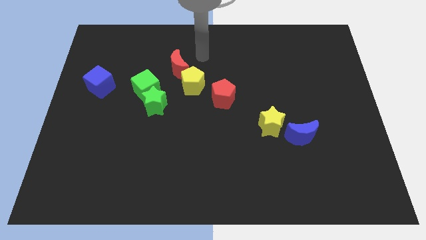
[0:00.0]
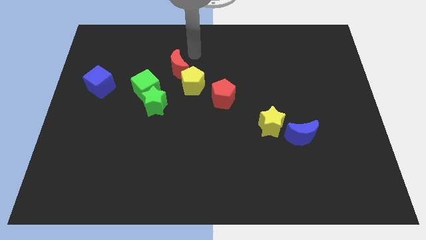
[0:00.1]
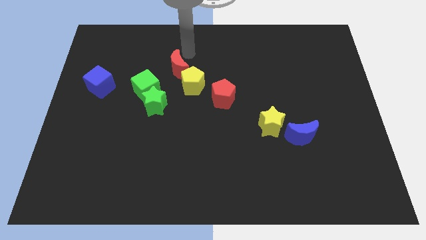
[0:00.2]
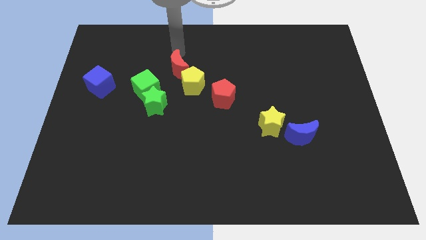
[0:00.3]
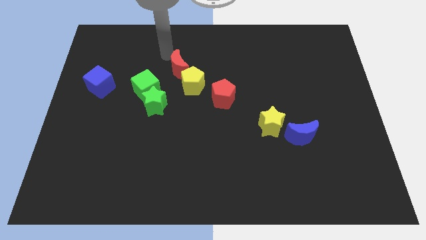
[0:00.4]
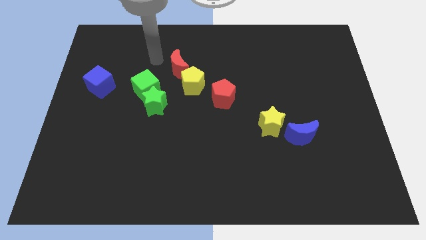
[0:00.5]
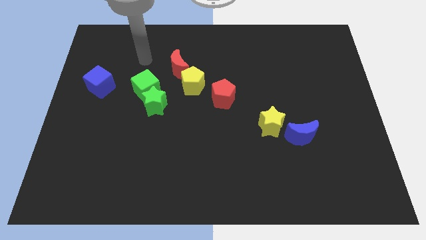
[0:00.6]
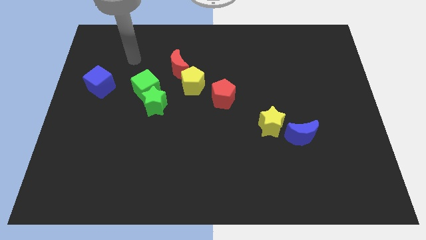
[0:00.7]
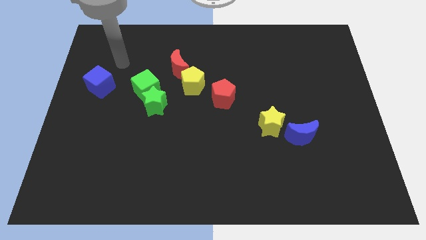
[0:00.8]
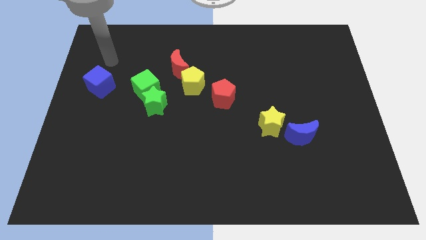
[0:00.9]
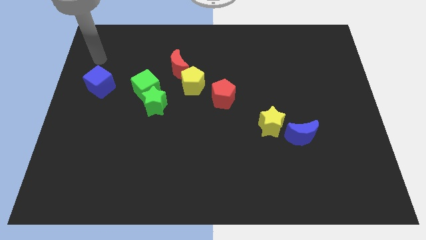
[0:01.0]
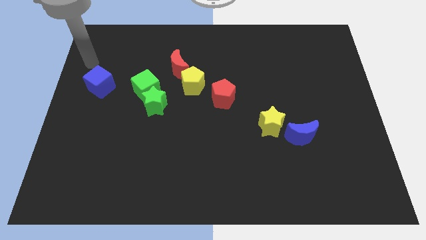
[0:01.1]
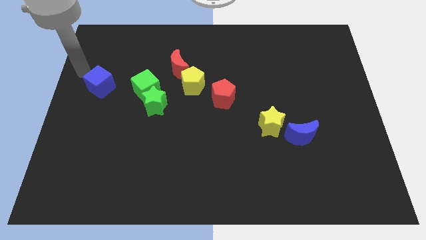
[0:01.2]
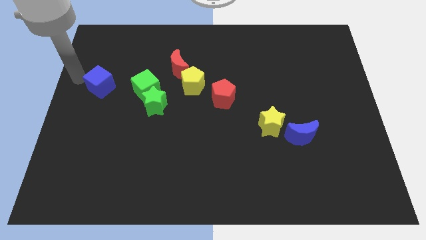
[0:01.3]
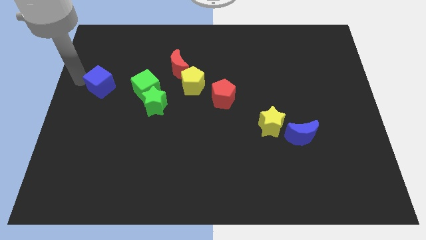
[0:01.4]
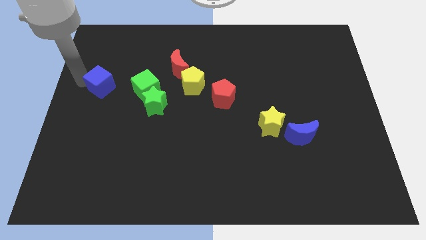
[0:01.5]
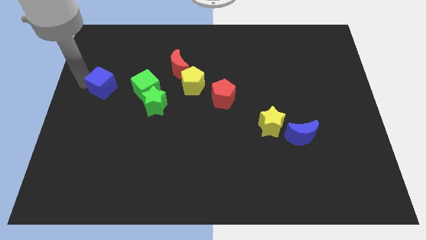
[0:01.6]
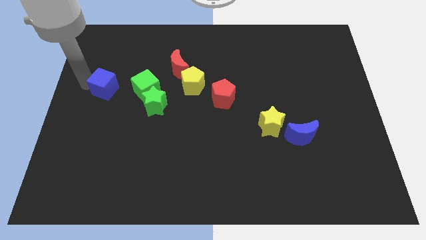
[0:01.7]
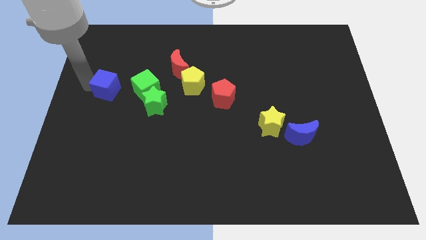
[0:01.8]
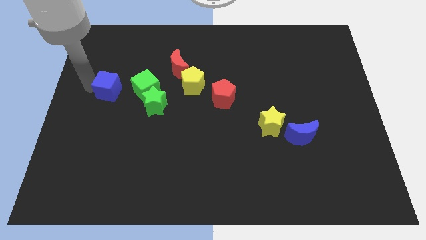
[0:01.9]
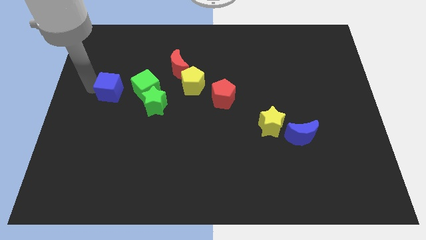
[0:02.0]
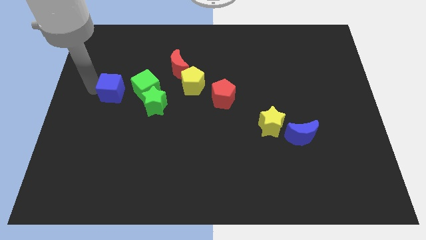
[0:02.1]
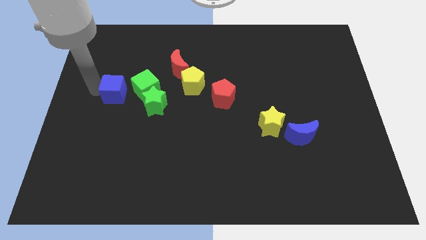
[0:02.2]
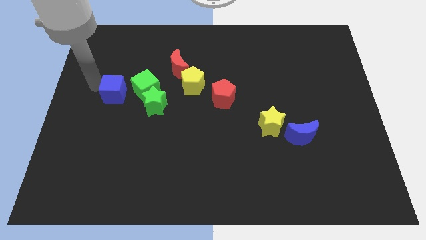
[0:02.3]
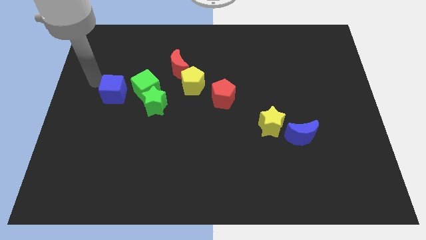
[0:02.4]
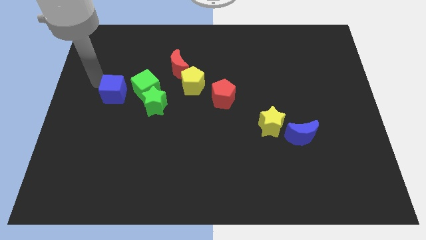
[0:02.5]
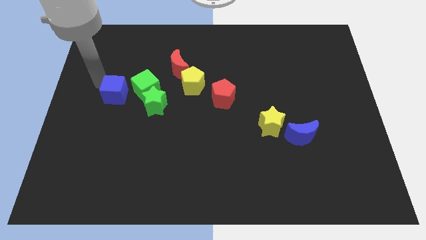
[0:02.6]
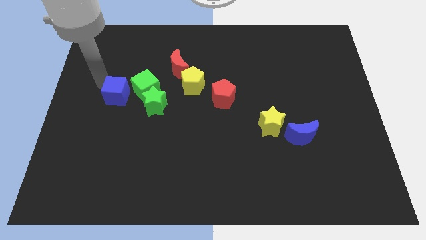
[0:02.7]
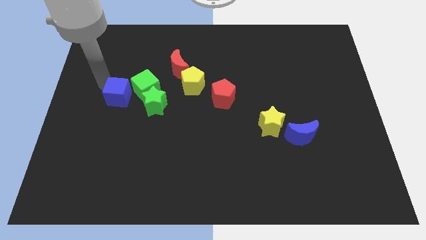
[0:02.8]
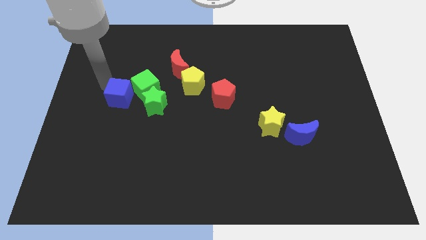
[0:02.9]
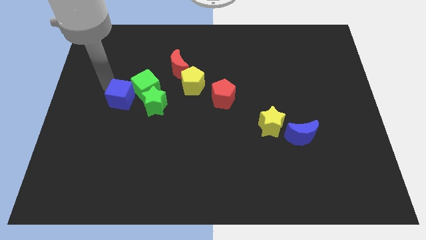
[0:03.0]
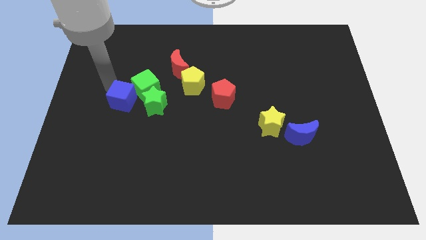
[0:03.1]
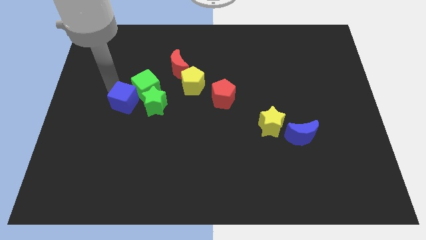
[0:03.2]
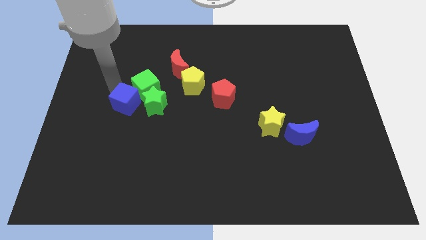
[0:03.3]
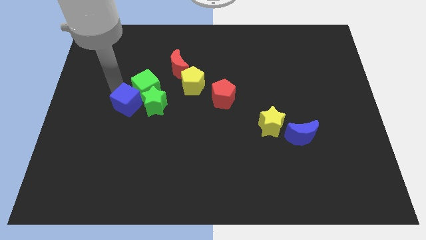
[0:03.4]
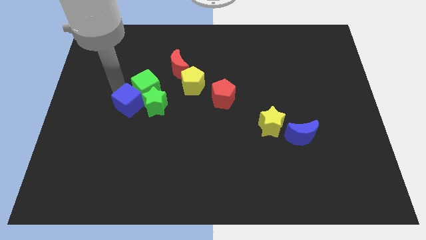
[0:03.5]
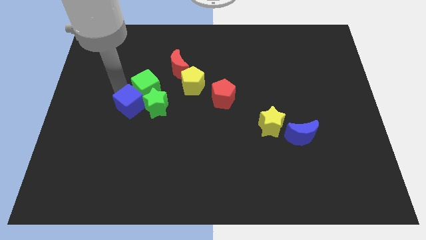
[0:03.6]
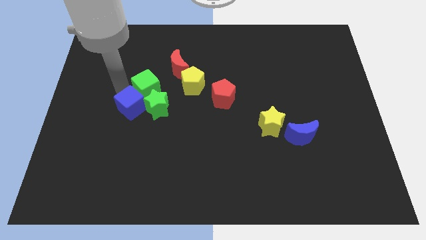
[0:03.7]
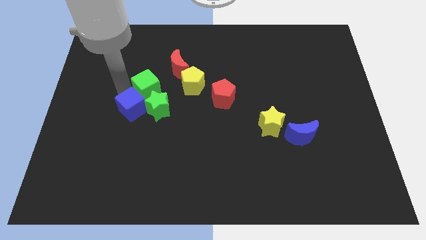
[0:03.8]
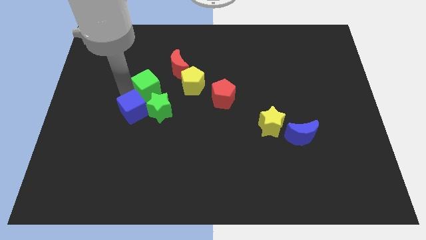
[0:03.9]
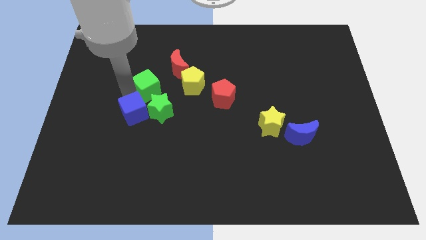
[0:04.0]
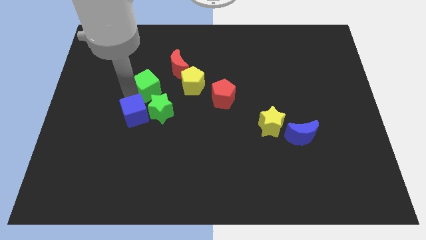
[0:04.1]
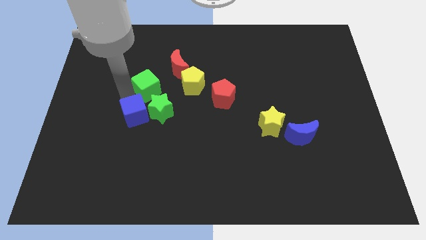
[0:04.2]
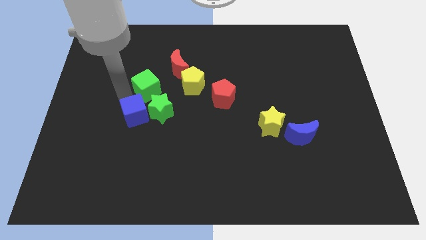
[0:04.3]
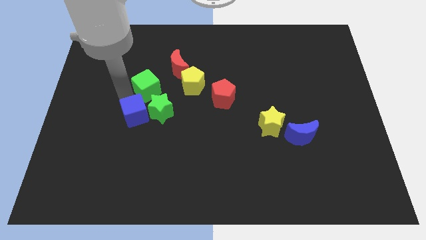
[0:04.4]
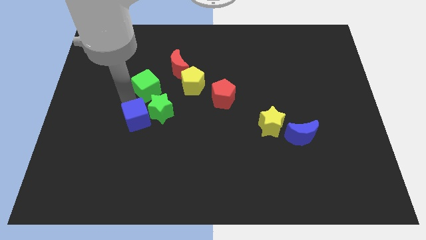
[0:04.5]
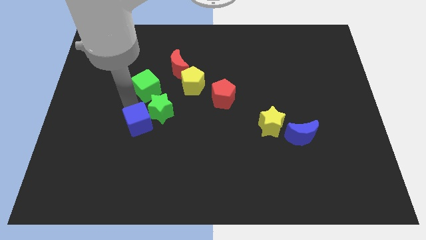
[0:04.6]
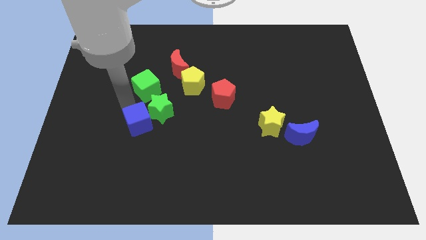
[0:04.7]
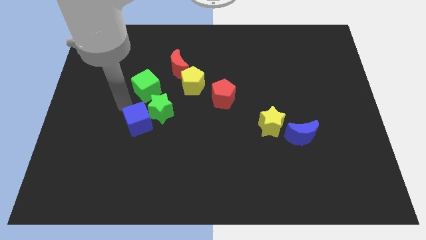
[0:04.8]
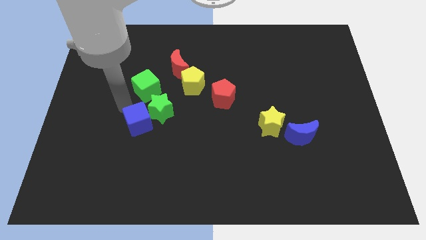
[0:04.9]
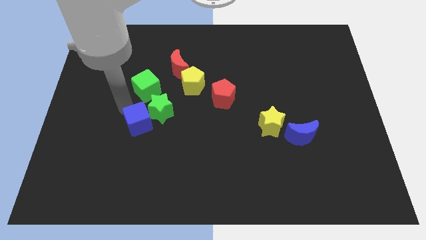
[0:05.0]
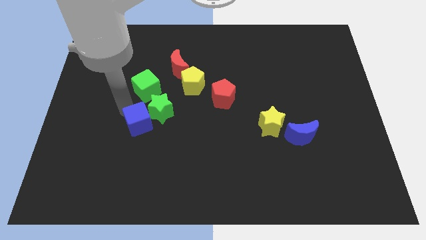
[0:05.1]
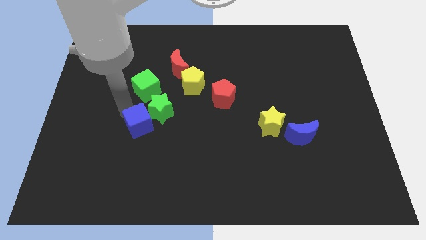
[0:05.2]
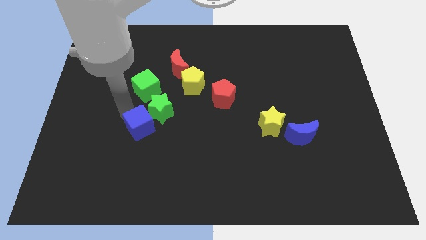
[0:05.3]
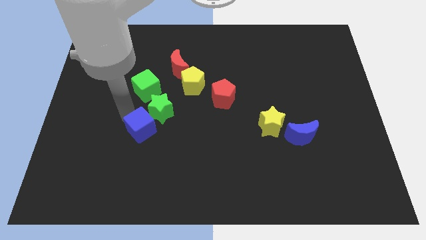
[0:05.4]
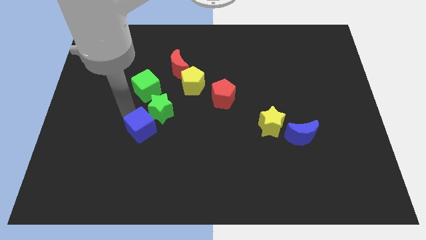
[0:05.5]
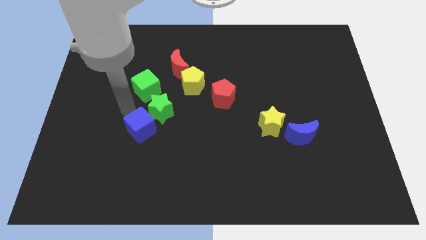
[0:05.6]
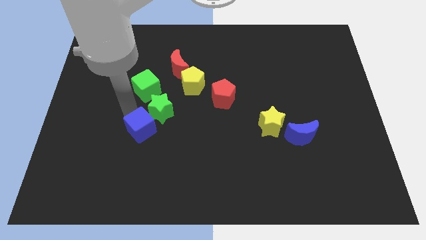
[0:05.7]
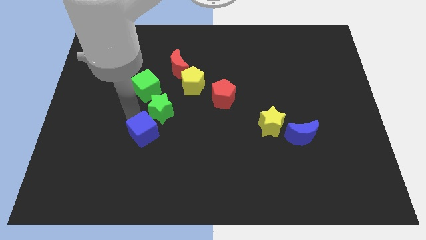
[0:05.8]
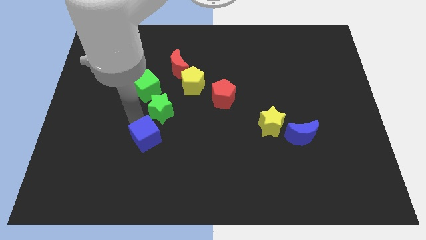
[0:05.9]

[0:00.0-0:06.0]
move the blue cube downwards and to the right diagonally

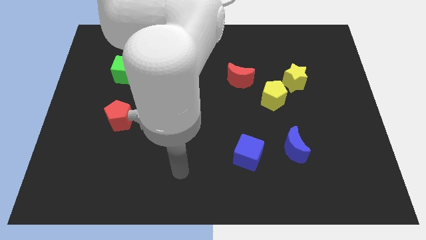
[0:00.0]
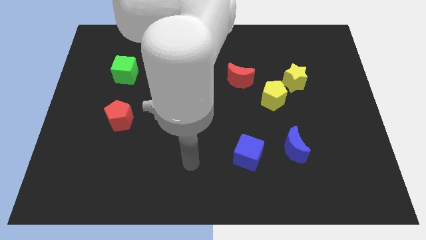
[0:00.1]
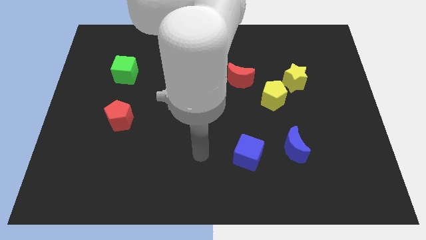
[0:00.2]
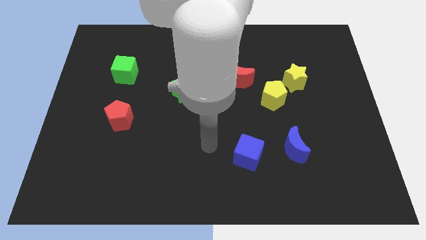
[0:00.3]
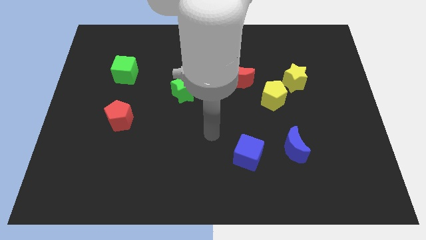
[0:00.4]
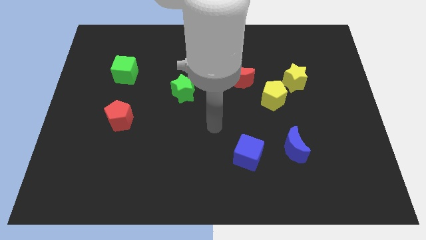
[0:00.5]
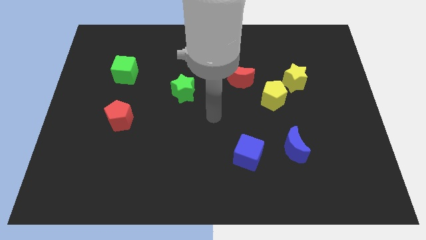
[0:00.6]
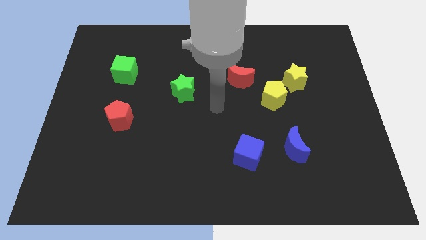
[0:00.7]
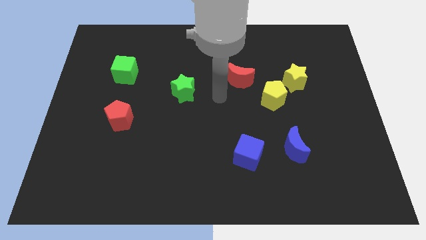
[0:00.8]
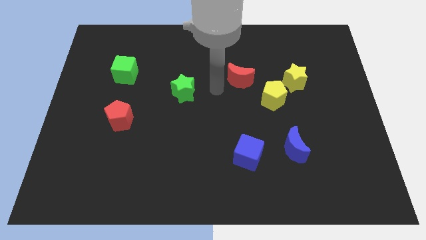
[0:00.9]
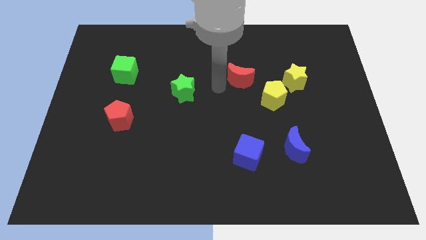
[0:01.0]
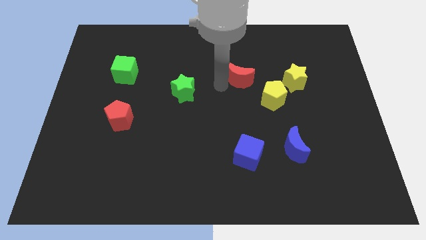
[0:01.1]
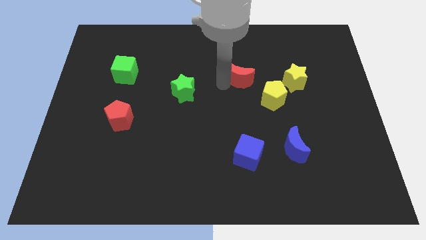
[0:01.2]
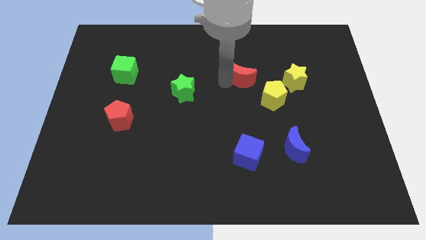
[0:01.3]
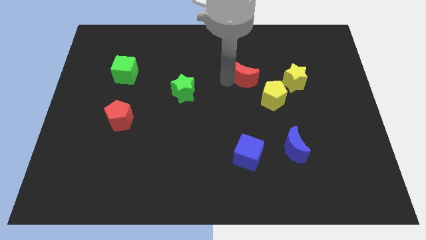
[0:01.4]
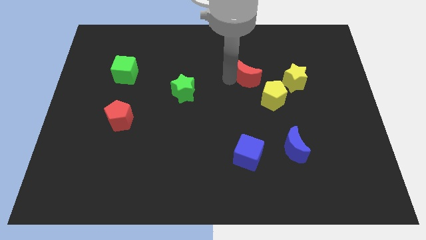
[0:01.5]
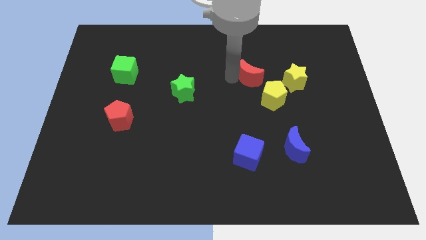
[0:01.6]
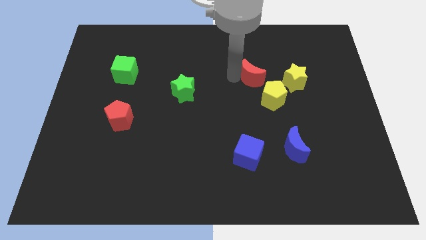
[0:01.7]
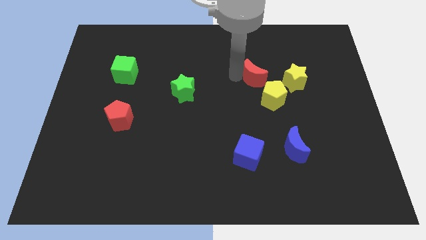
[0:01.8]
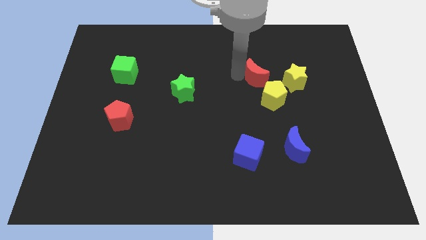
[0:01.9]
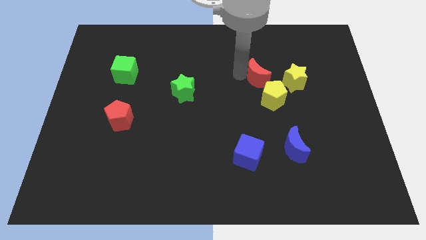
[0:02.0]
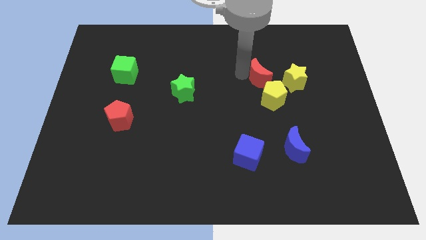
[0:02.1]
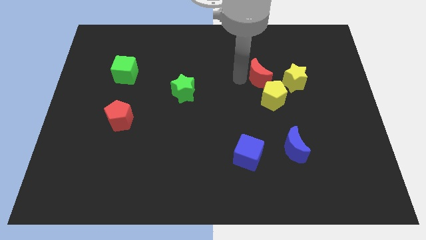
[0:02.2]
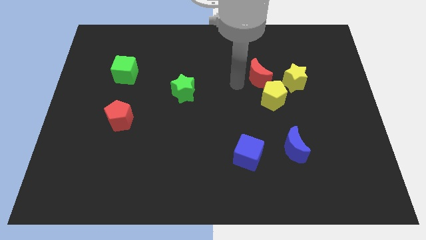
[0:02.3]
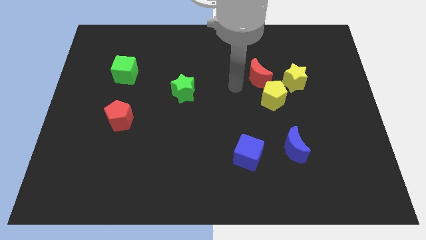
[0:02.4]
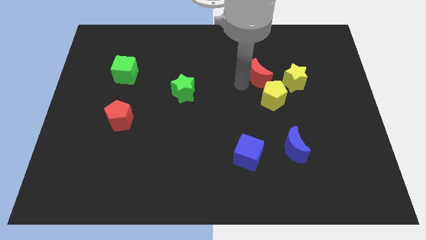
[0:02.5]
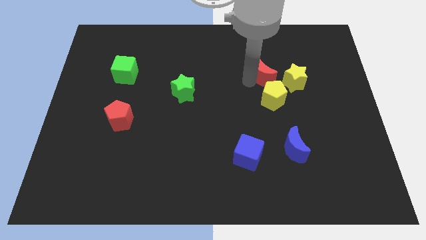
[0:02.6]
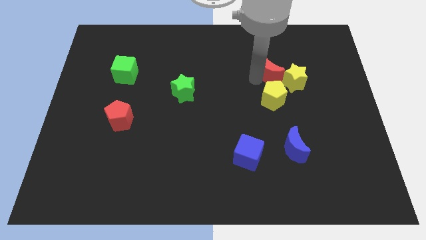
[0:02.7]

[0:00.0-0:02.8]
slide the red moon a little bit right
